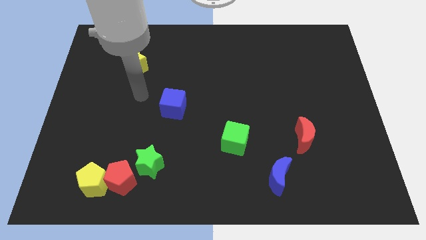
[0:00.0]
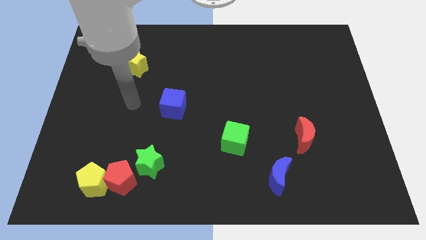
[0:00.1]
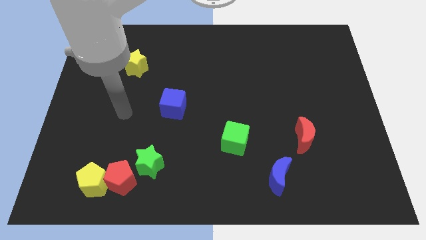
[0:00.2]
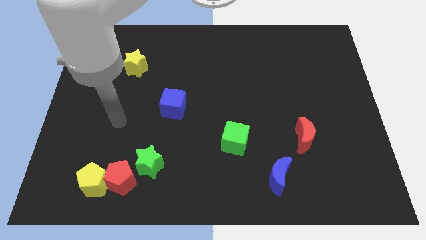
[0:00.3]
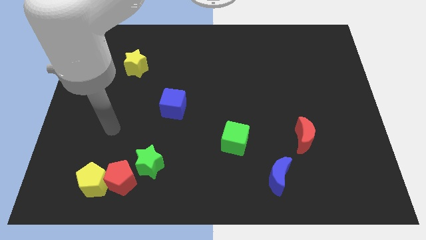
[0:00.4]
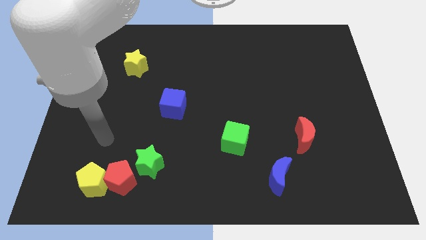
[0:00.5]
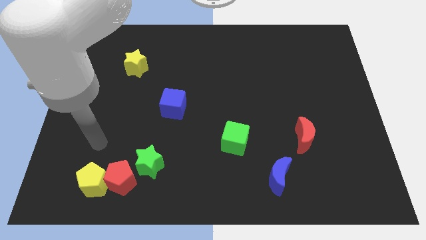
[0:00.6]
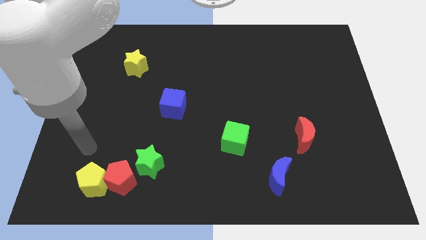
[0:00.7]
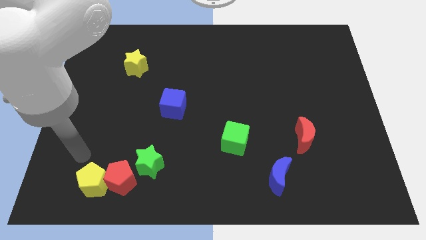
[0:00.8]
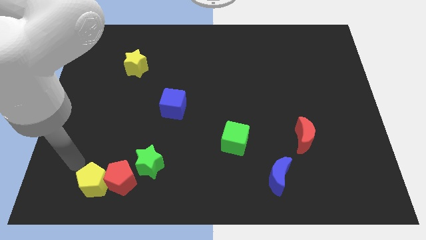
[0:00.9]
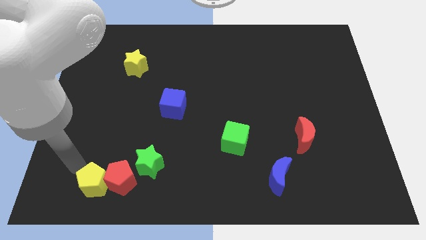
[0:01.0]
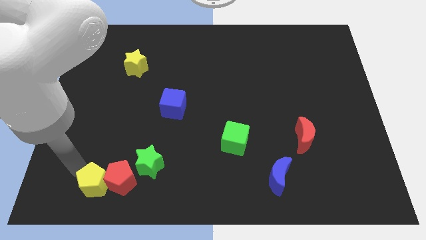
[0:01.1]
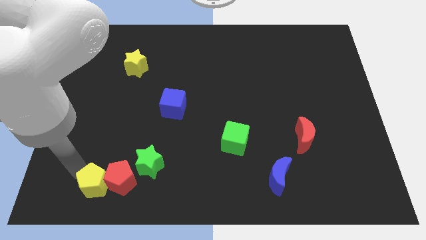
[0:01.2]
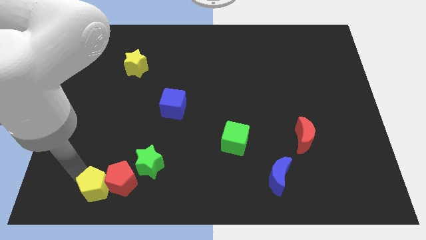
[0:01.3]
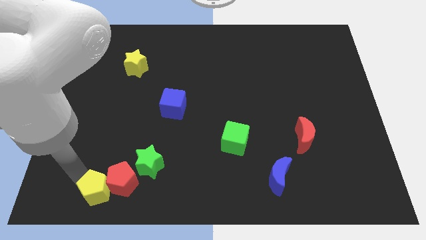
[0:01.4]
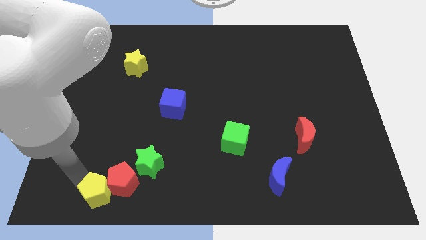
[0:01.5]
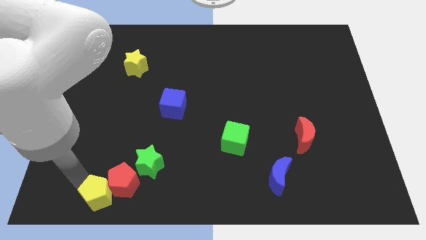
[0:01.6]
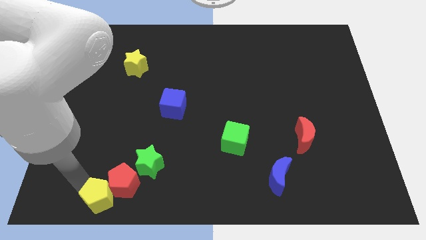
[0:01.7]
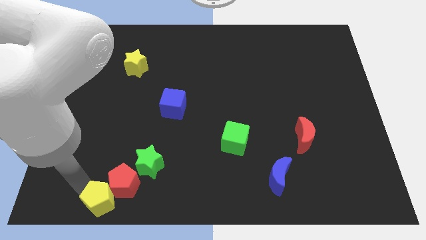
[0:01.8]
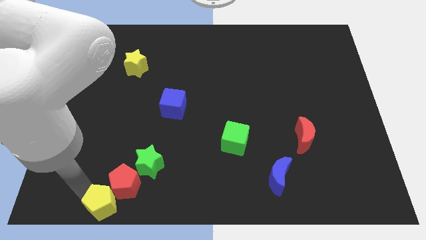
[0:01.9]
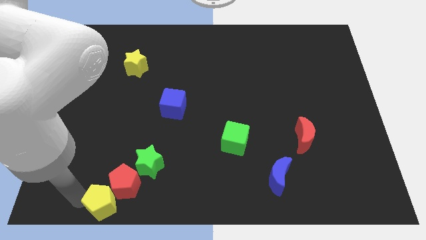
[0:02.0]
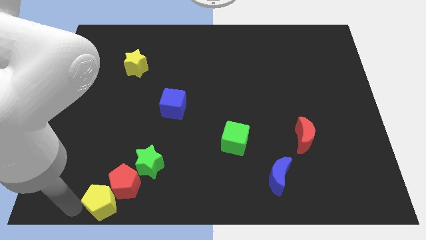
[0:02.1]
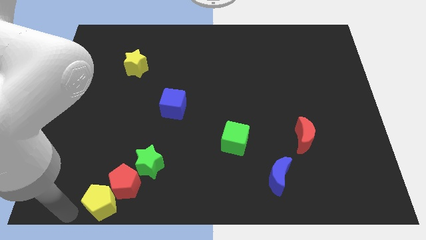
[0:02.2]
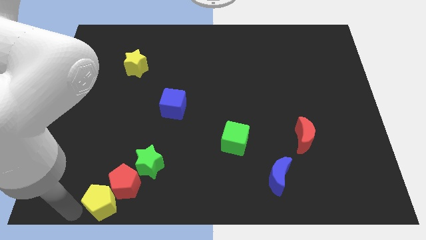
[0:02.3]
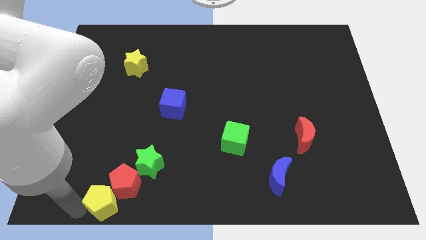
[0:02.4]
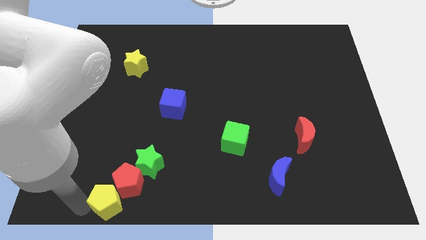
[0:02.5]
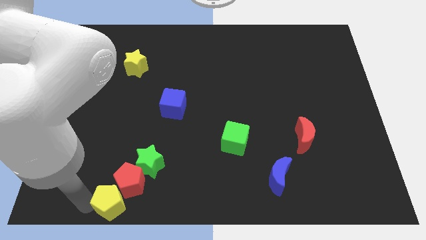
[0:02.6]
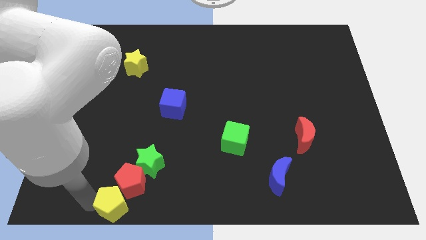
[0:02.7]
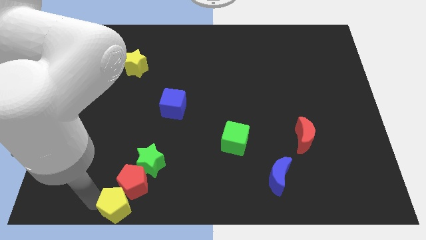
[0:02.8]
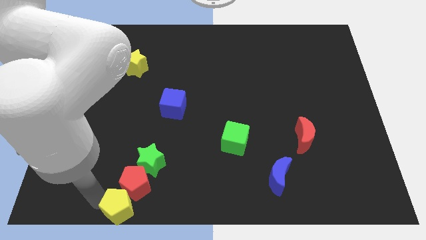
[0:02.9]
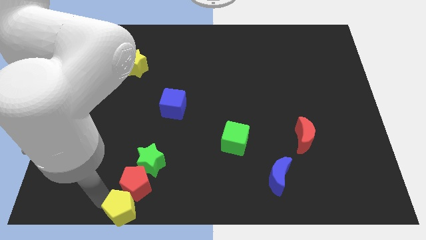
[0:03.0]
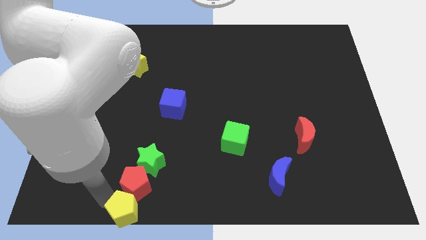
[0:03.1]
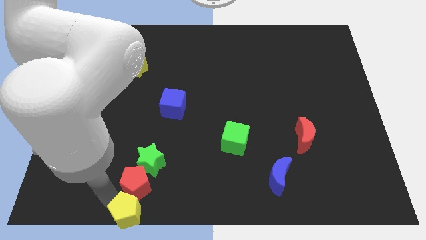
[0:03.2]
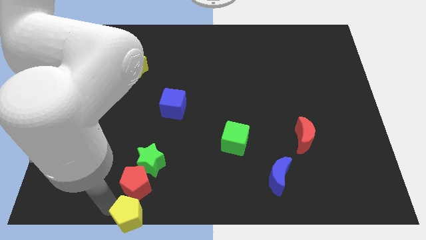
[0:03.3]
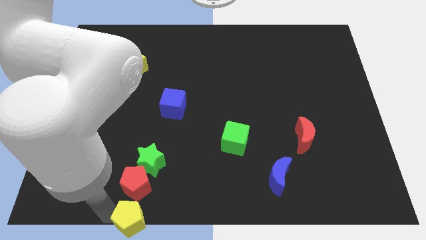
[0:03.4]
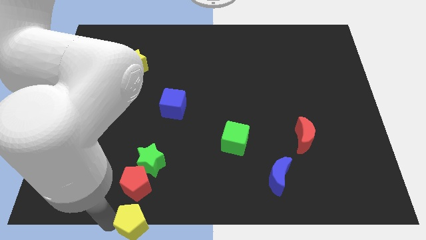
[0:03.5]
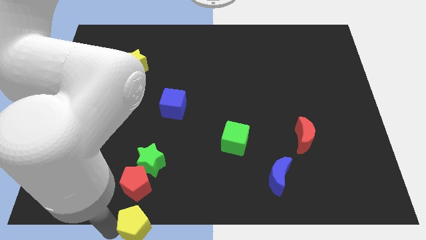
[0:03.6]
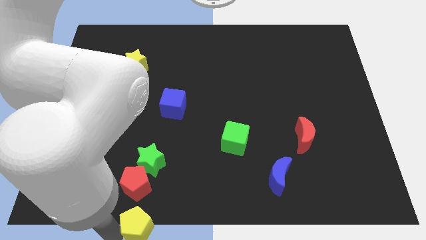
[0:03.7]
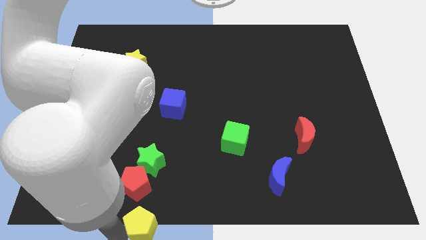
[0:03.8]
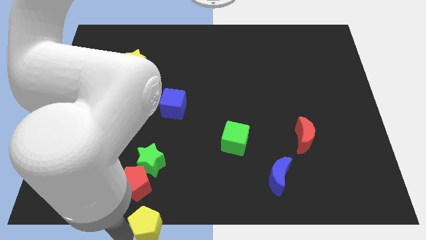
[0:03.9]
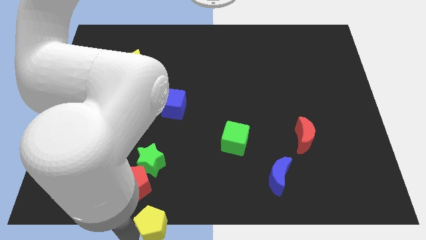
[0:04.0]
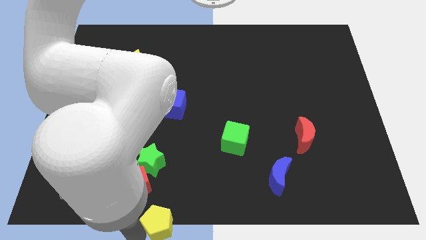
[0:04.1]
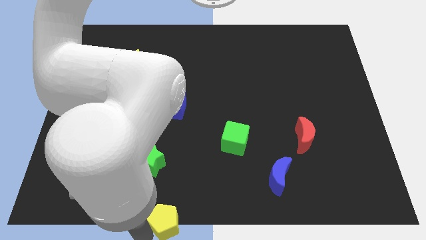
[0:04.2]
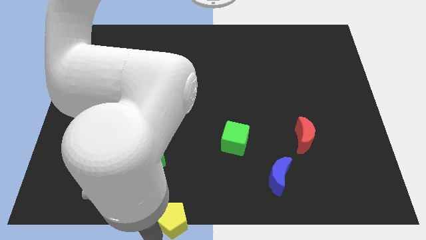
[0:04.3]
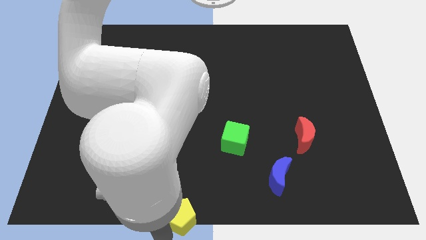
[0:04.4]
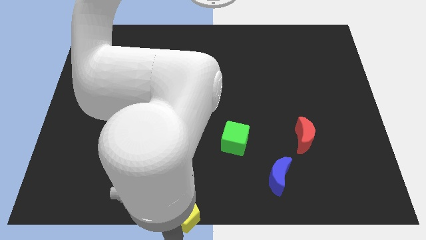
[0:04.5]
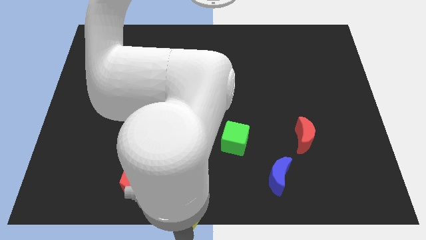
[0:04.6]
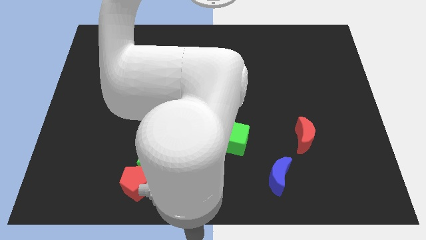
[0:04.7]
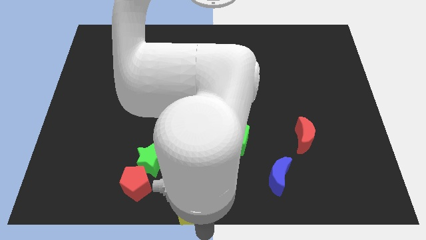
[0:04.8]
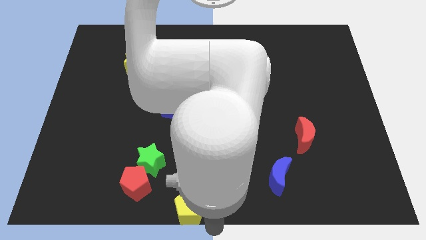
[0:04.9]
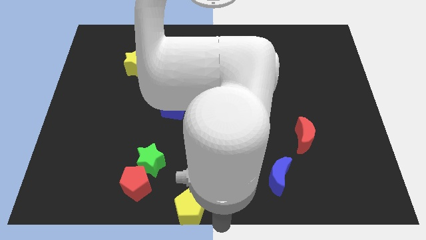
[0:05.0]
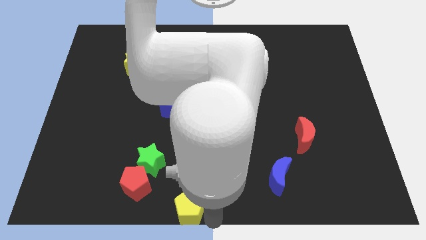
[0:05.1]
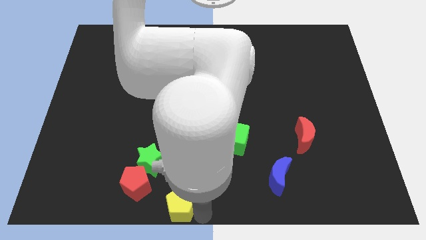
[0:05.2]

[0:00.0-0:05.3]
move the yellow pentagon to the right of the red pentagon

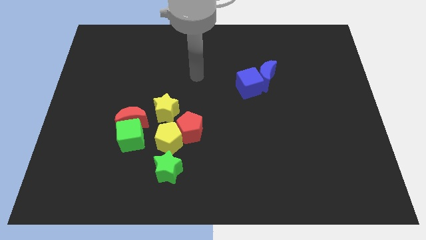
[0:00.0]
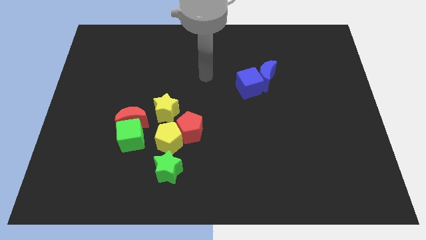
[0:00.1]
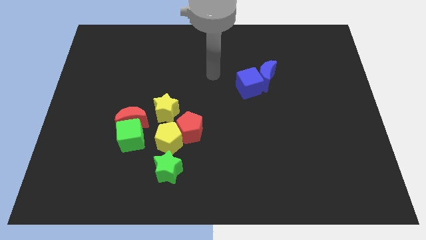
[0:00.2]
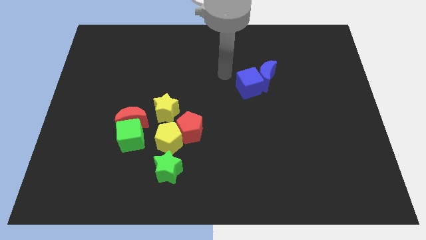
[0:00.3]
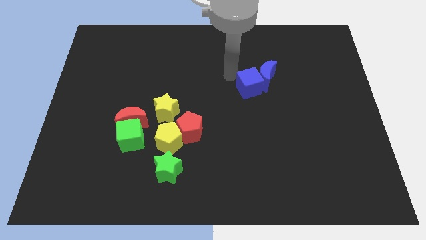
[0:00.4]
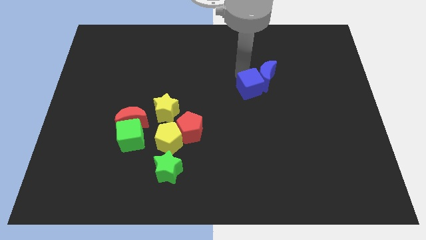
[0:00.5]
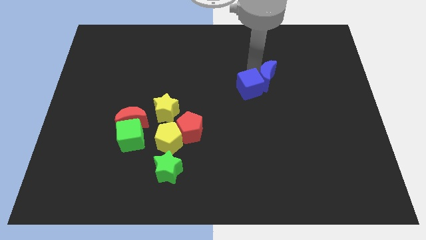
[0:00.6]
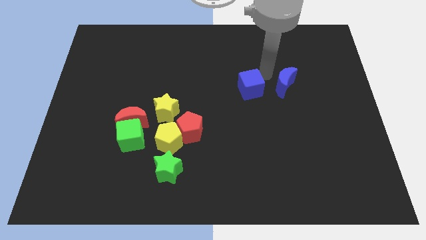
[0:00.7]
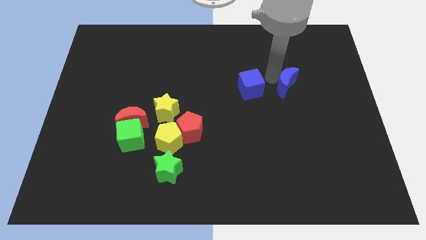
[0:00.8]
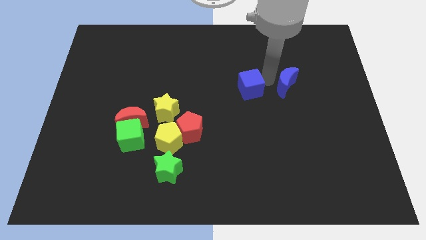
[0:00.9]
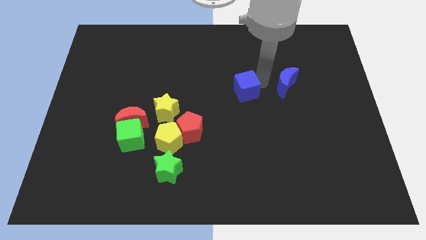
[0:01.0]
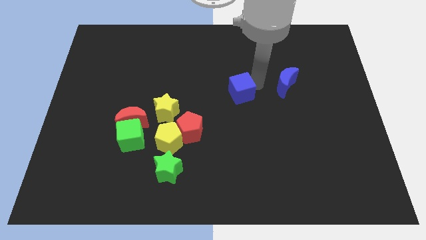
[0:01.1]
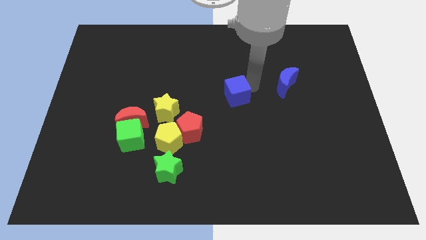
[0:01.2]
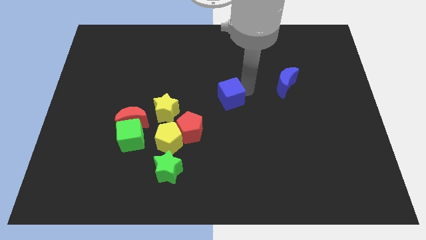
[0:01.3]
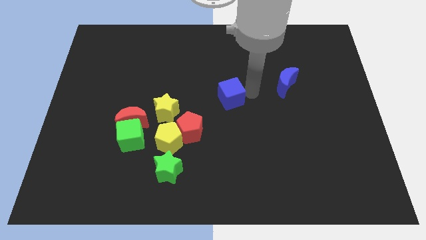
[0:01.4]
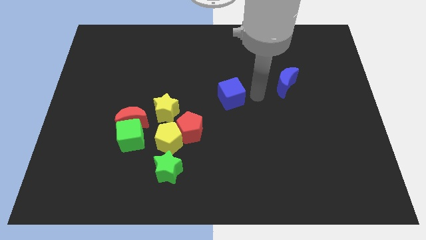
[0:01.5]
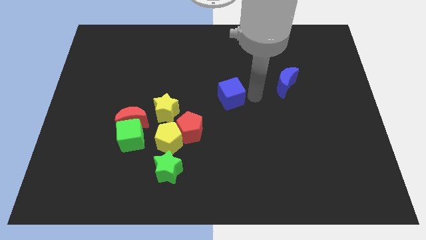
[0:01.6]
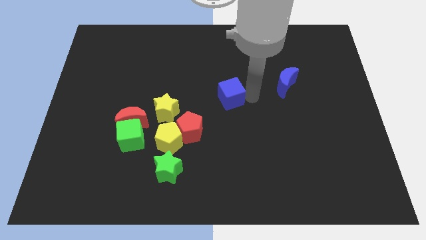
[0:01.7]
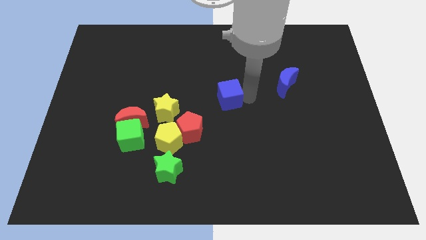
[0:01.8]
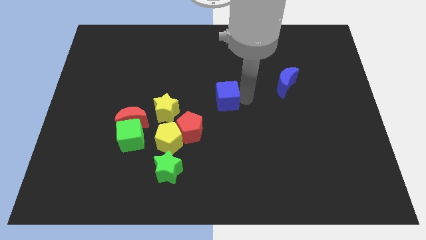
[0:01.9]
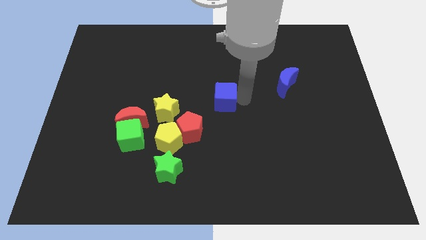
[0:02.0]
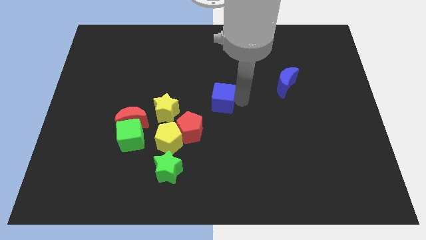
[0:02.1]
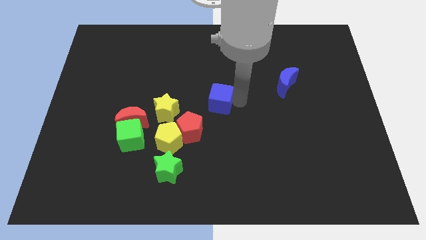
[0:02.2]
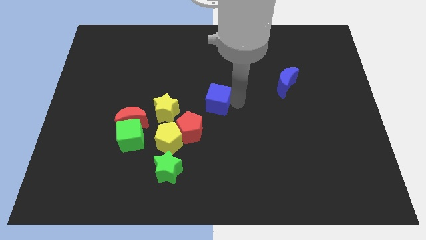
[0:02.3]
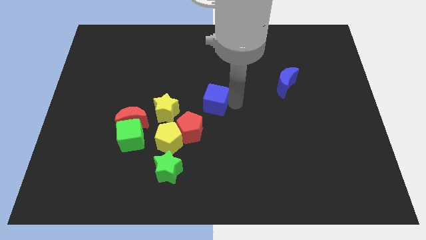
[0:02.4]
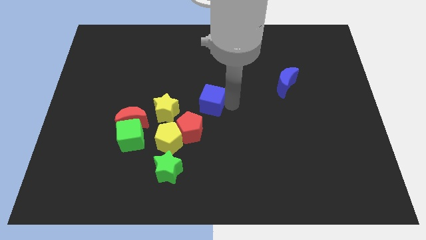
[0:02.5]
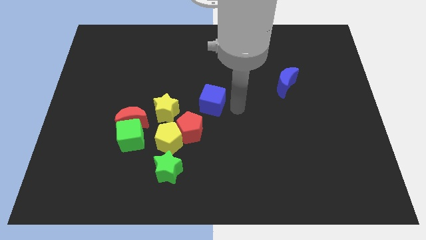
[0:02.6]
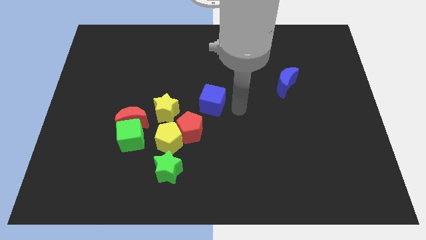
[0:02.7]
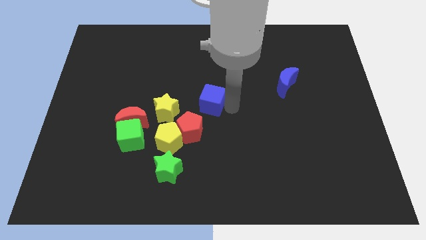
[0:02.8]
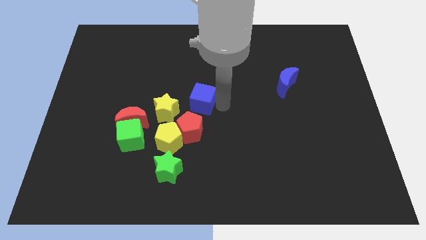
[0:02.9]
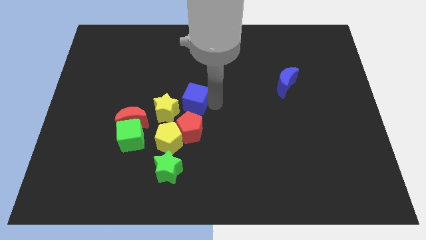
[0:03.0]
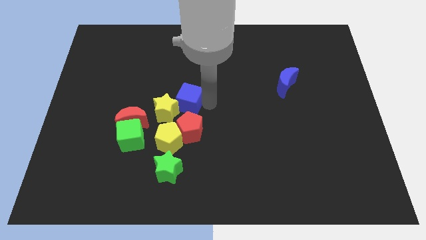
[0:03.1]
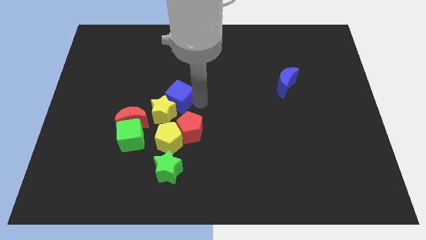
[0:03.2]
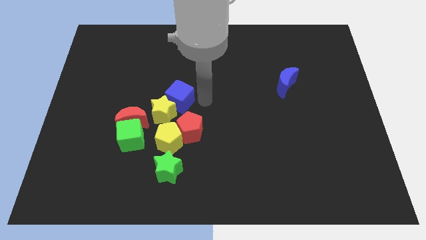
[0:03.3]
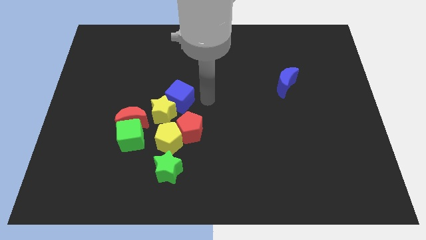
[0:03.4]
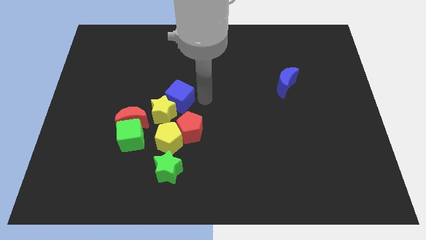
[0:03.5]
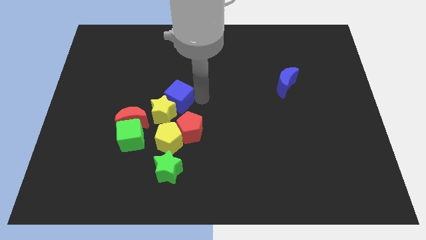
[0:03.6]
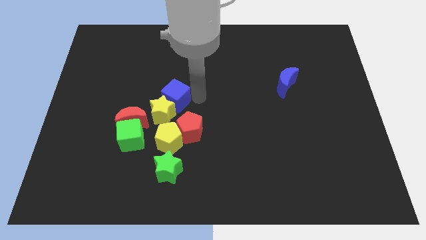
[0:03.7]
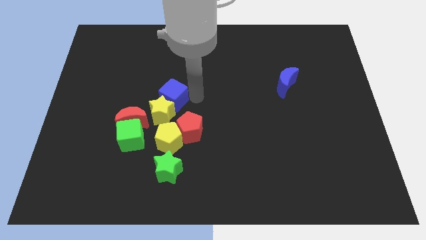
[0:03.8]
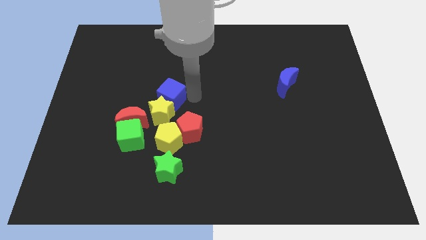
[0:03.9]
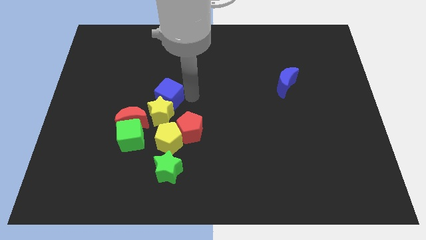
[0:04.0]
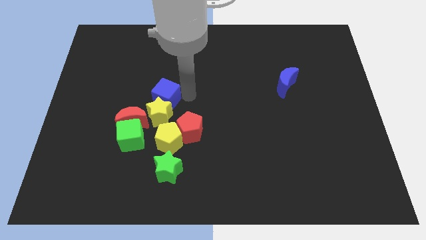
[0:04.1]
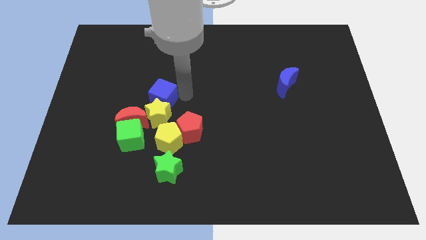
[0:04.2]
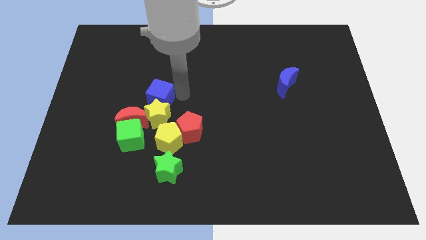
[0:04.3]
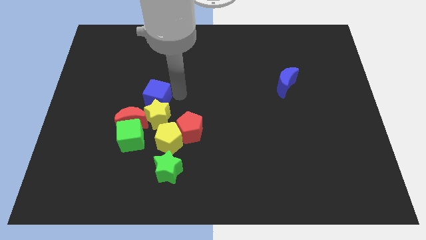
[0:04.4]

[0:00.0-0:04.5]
slide the blue cube to the top of the green cube
